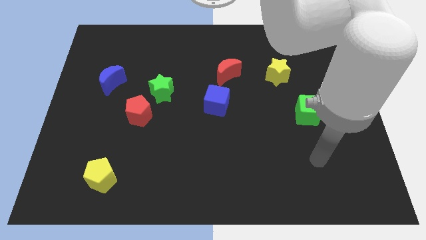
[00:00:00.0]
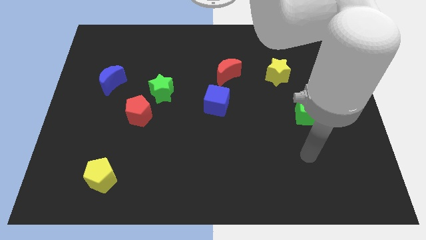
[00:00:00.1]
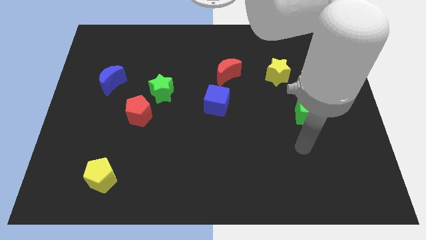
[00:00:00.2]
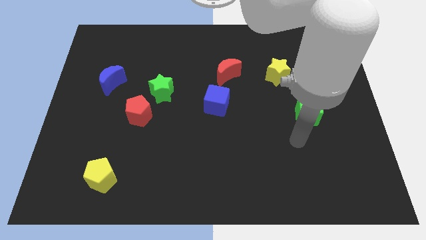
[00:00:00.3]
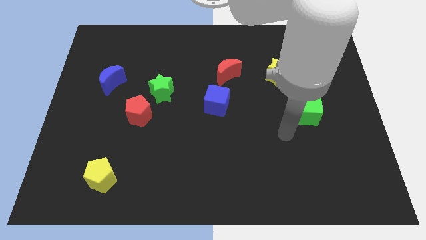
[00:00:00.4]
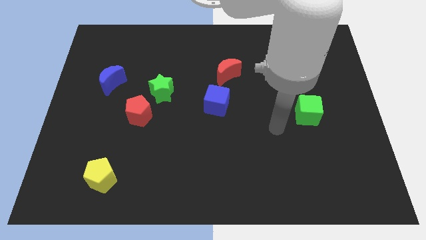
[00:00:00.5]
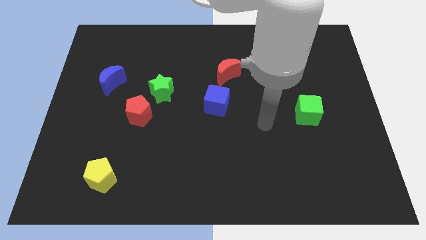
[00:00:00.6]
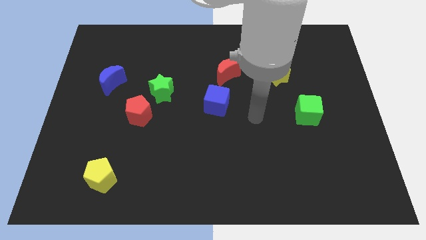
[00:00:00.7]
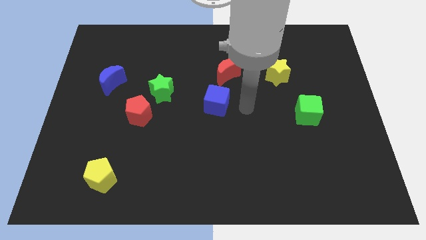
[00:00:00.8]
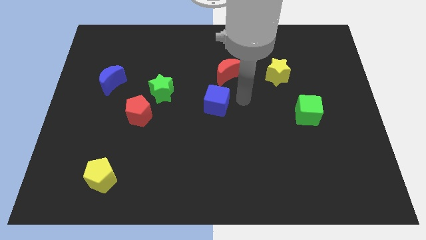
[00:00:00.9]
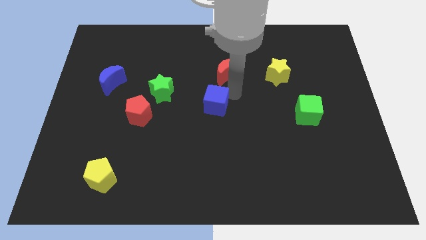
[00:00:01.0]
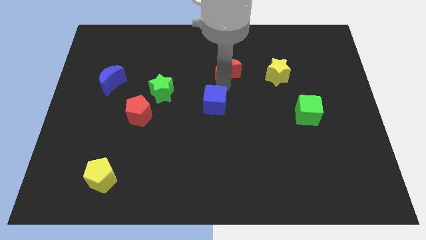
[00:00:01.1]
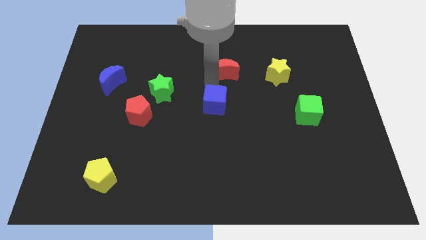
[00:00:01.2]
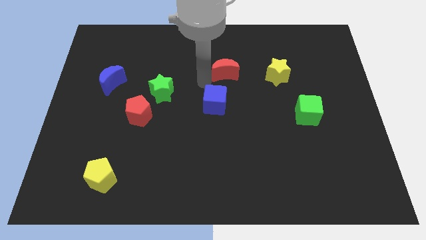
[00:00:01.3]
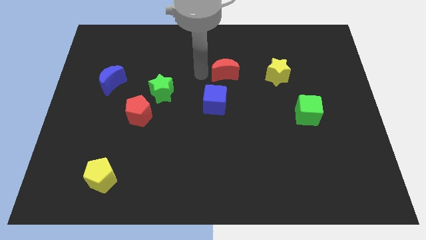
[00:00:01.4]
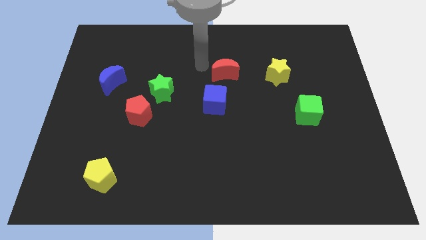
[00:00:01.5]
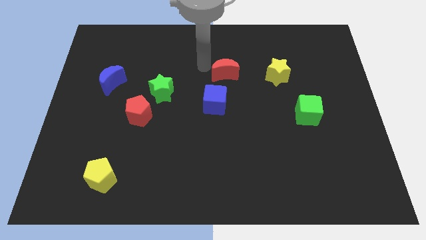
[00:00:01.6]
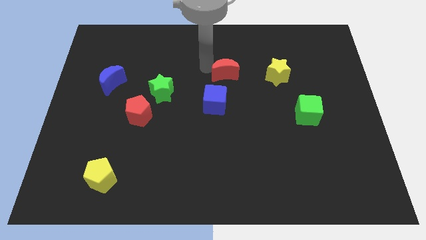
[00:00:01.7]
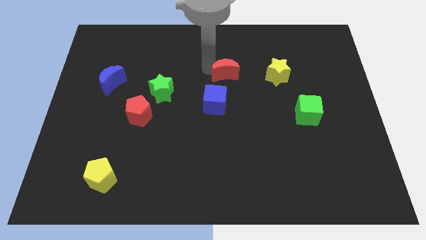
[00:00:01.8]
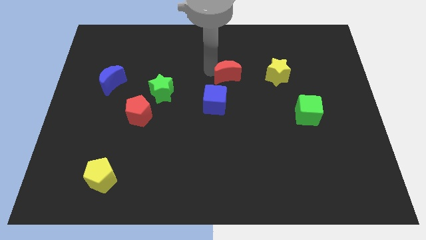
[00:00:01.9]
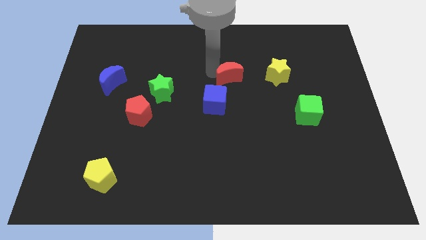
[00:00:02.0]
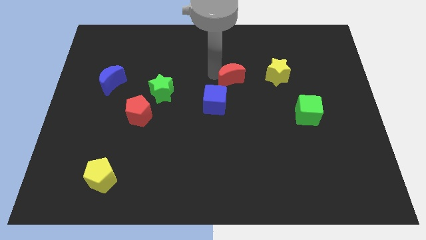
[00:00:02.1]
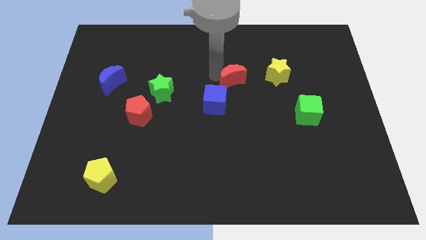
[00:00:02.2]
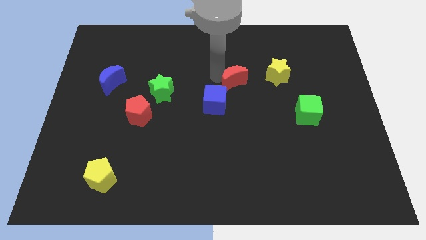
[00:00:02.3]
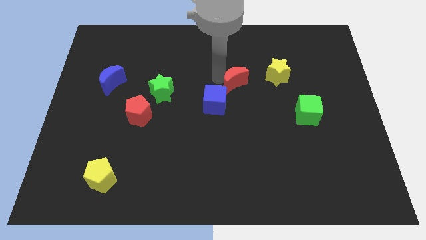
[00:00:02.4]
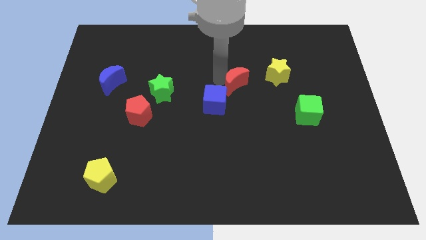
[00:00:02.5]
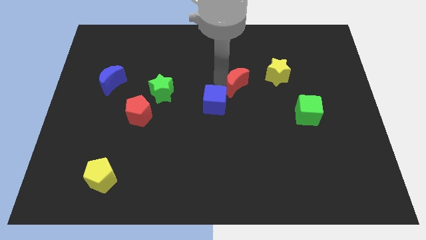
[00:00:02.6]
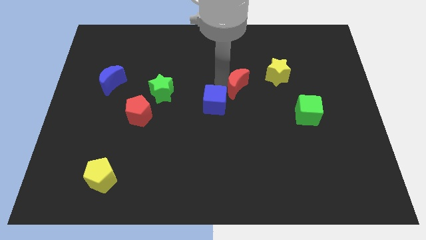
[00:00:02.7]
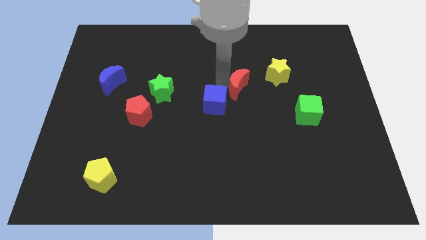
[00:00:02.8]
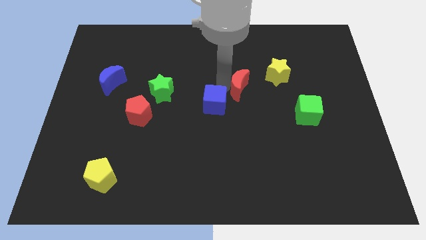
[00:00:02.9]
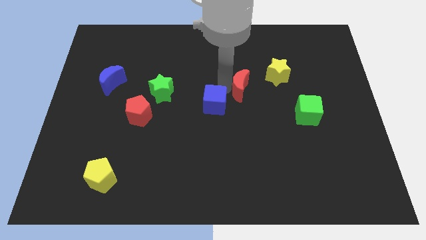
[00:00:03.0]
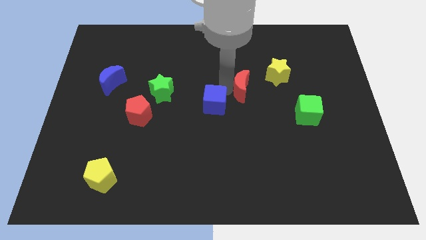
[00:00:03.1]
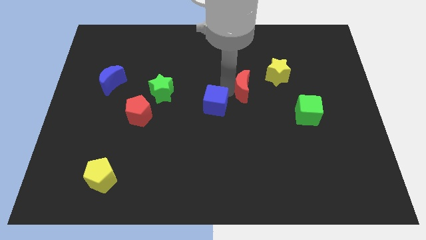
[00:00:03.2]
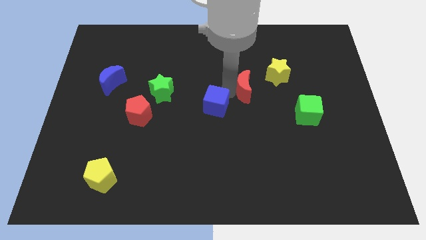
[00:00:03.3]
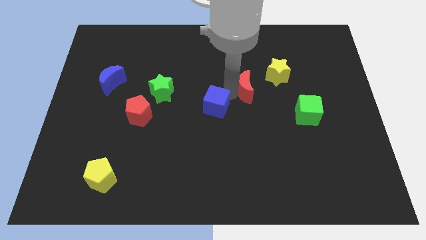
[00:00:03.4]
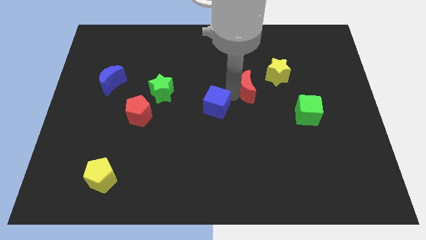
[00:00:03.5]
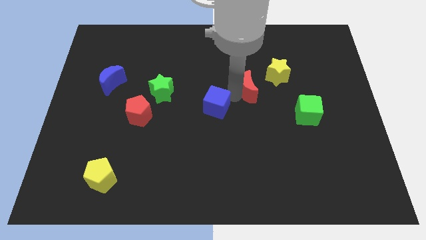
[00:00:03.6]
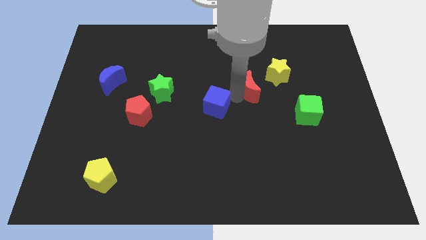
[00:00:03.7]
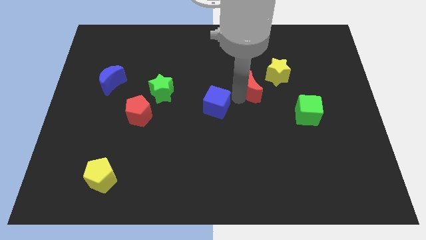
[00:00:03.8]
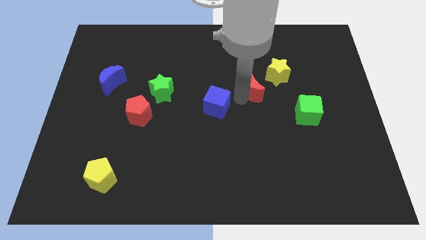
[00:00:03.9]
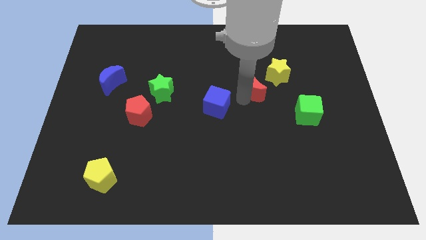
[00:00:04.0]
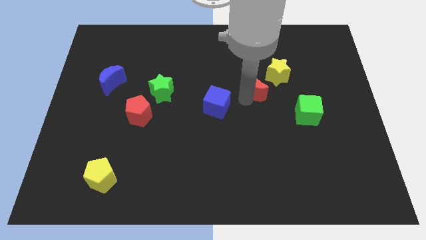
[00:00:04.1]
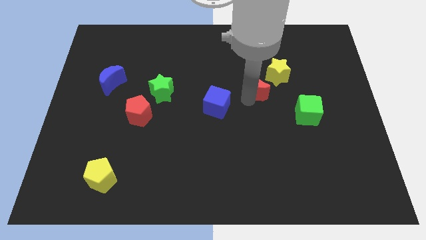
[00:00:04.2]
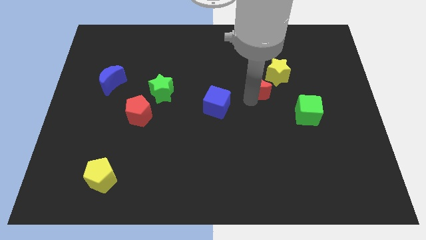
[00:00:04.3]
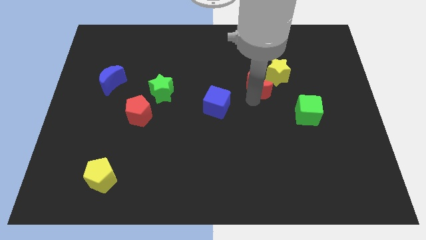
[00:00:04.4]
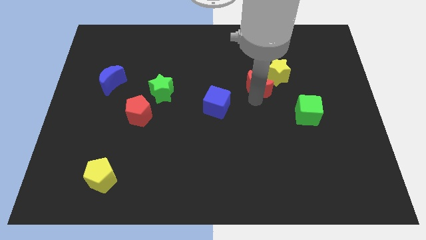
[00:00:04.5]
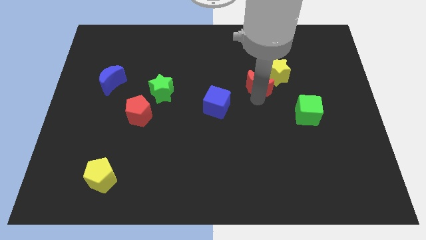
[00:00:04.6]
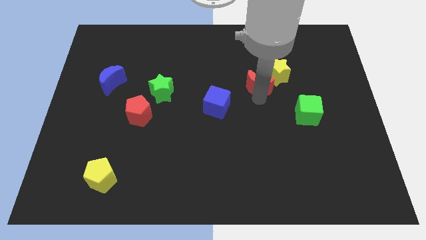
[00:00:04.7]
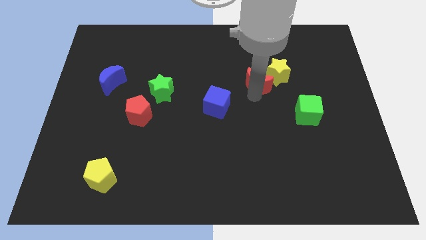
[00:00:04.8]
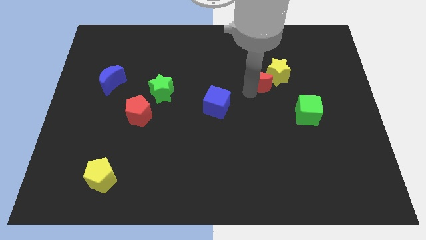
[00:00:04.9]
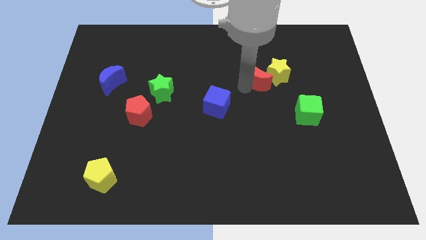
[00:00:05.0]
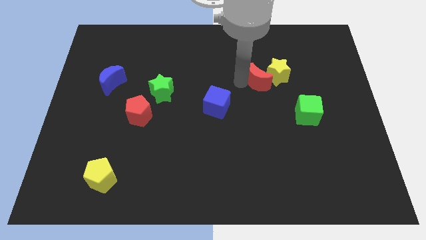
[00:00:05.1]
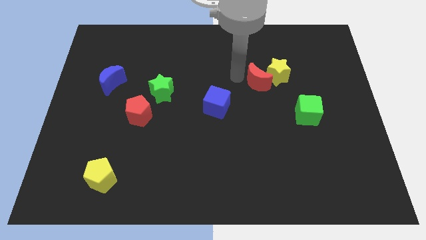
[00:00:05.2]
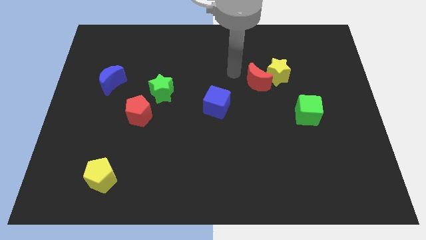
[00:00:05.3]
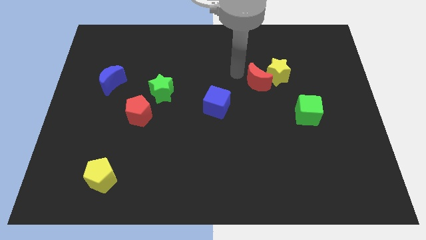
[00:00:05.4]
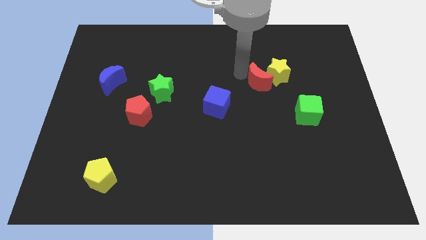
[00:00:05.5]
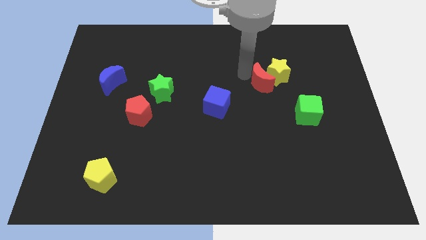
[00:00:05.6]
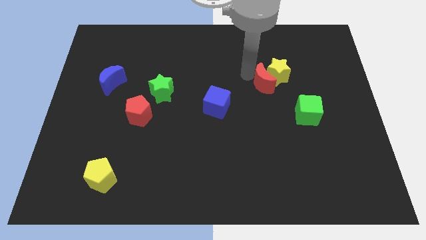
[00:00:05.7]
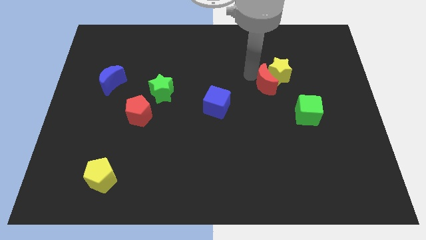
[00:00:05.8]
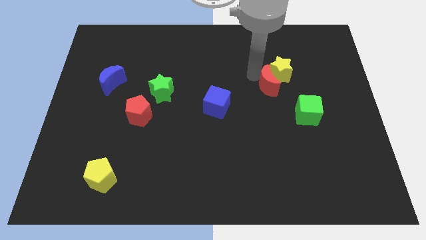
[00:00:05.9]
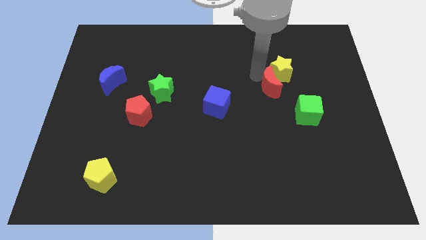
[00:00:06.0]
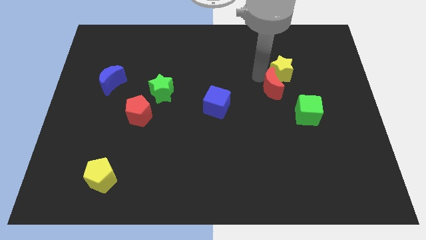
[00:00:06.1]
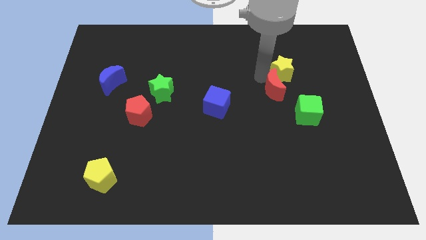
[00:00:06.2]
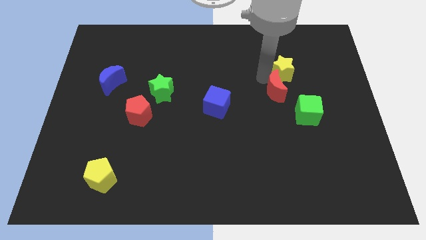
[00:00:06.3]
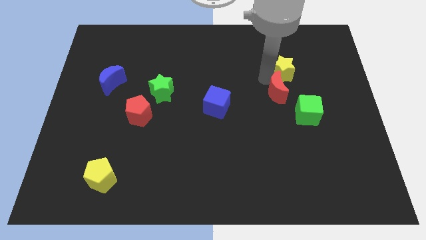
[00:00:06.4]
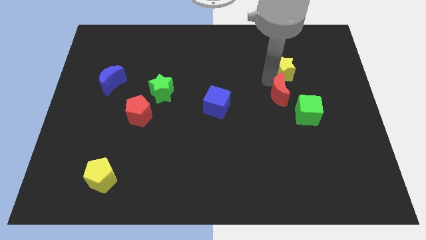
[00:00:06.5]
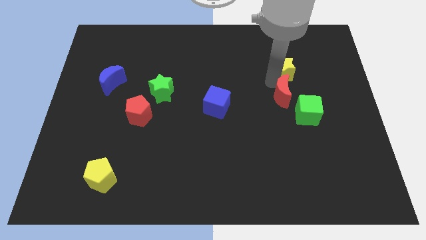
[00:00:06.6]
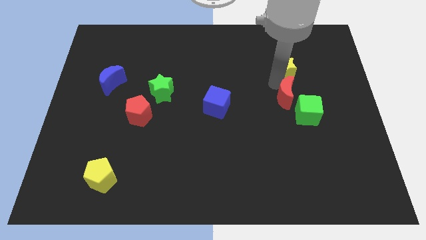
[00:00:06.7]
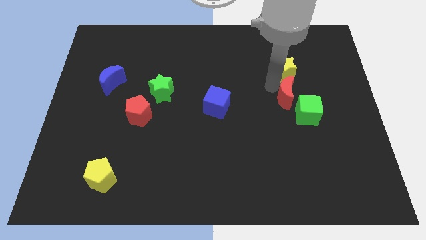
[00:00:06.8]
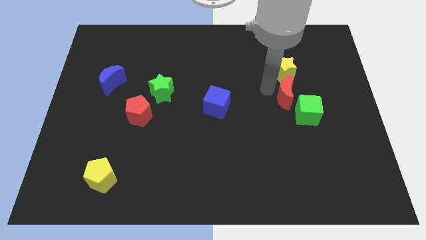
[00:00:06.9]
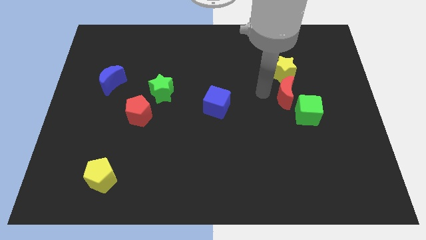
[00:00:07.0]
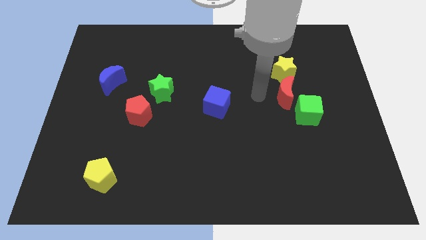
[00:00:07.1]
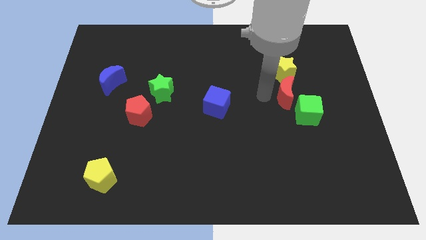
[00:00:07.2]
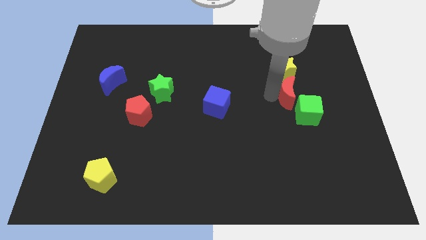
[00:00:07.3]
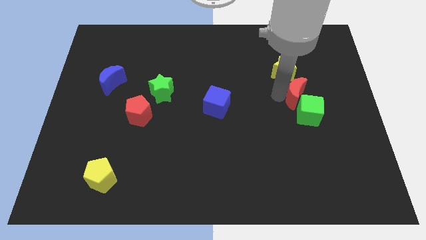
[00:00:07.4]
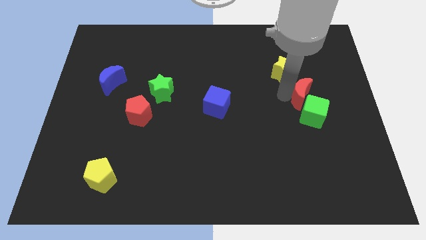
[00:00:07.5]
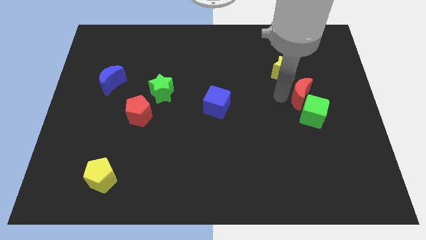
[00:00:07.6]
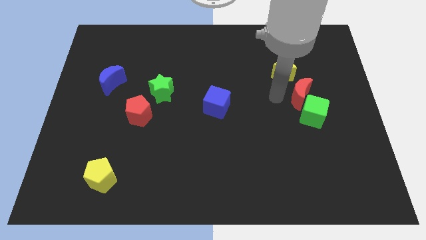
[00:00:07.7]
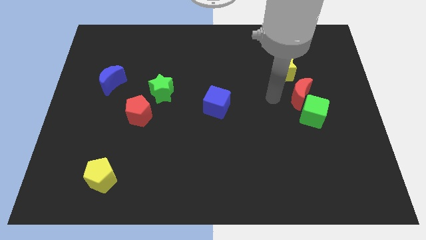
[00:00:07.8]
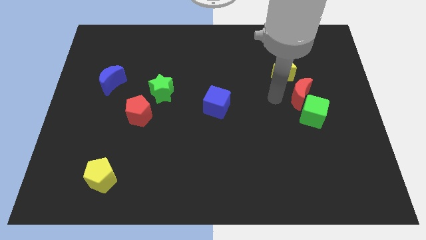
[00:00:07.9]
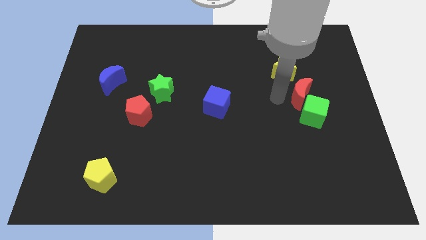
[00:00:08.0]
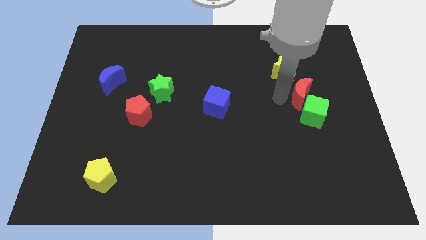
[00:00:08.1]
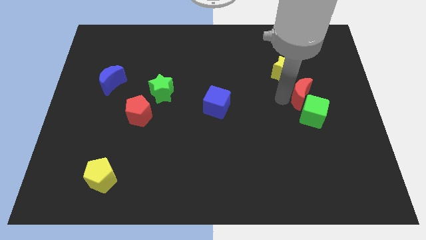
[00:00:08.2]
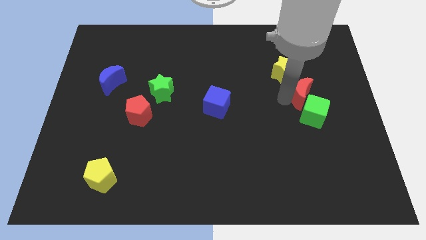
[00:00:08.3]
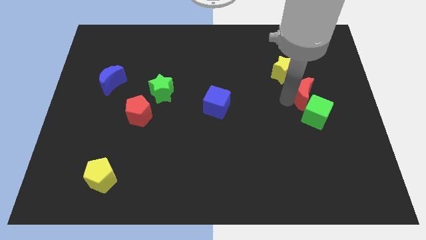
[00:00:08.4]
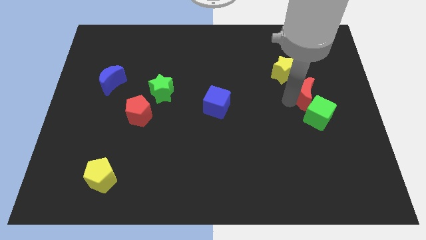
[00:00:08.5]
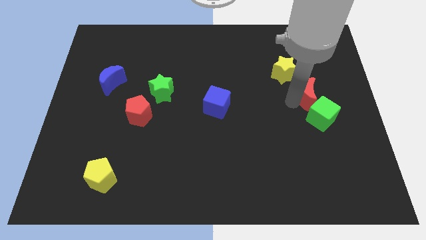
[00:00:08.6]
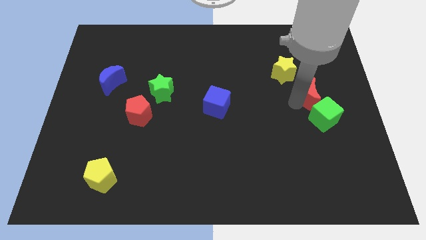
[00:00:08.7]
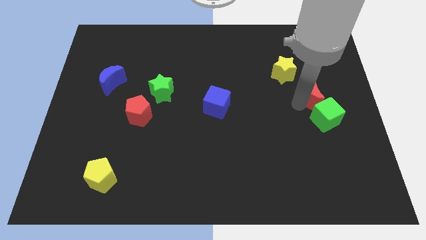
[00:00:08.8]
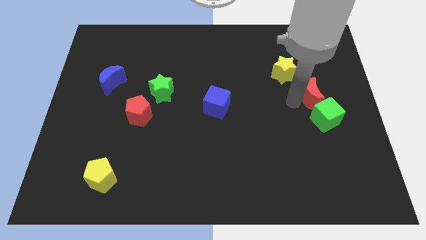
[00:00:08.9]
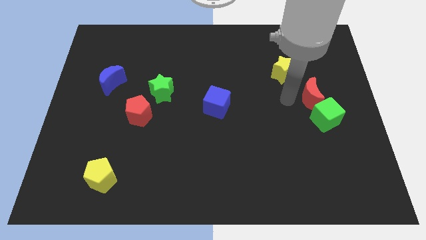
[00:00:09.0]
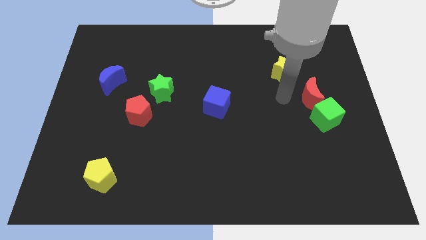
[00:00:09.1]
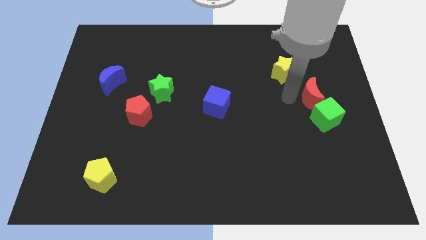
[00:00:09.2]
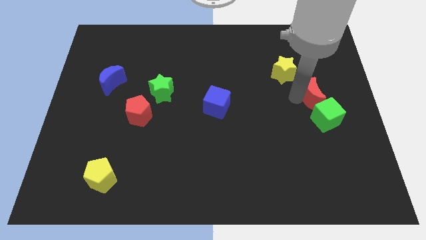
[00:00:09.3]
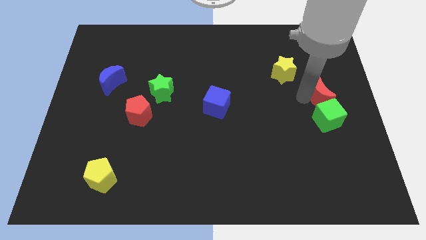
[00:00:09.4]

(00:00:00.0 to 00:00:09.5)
push the red moon to the right side of the board
